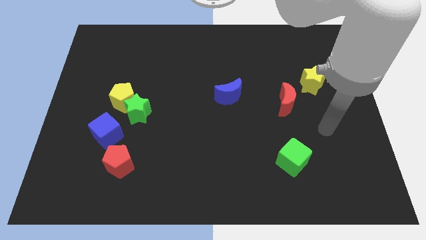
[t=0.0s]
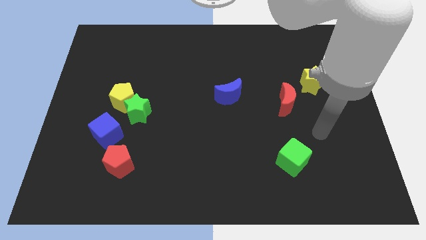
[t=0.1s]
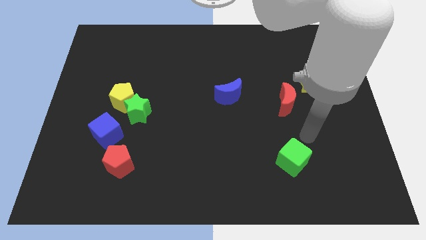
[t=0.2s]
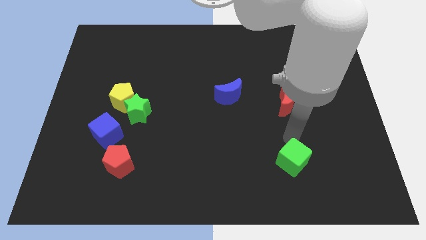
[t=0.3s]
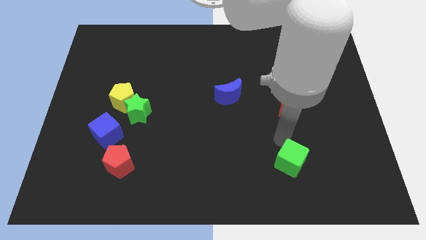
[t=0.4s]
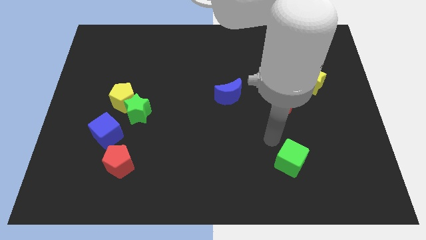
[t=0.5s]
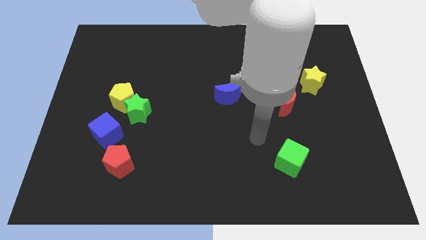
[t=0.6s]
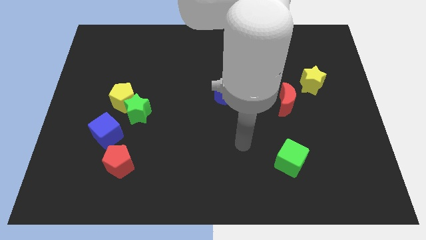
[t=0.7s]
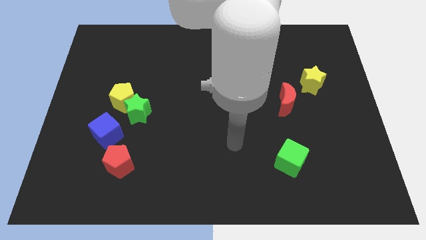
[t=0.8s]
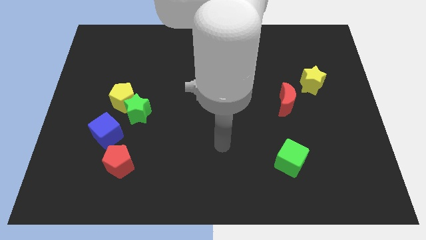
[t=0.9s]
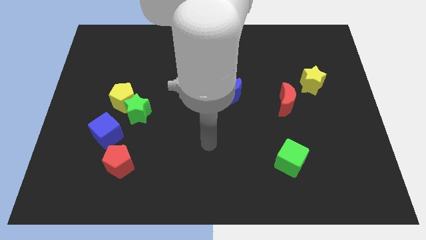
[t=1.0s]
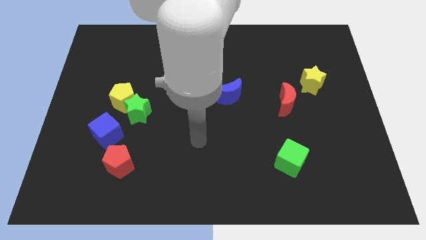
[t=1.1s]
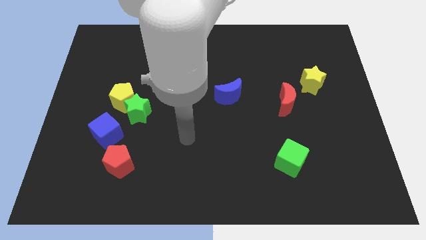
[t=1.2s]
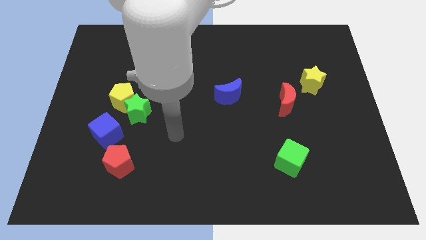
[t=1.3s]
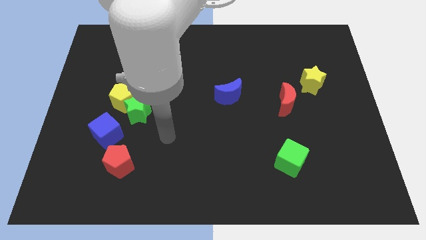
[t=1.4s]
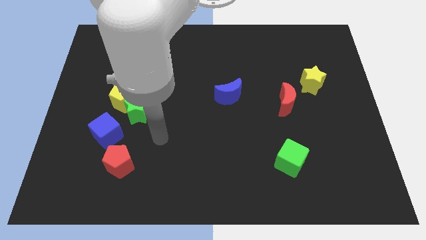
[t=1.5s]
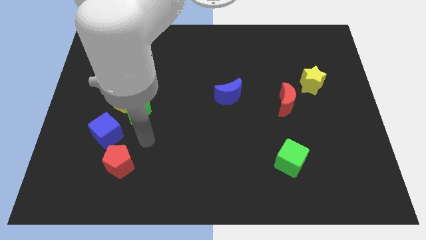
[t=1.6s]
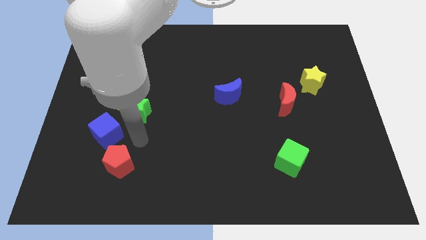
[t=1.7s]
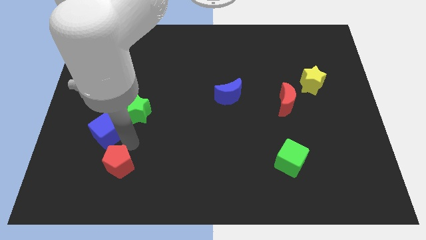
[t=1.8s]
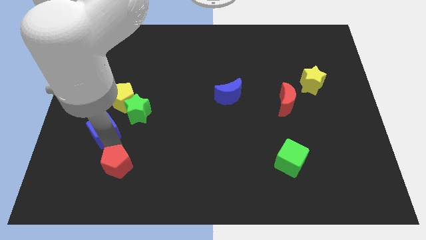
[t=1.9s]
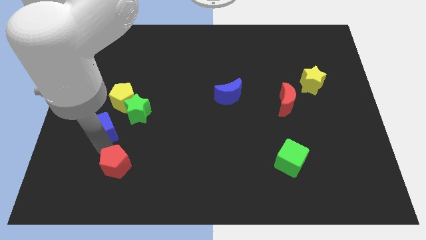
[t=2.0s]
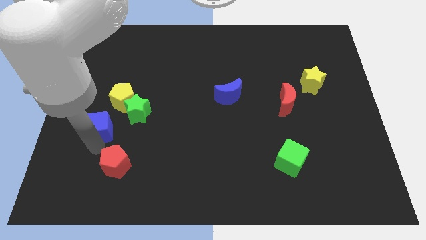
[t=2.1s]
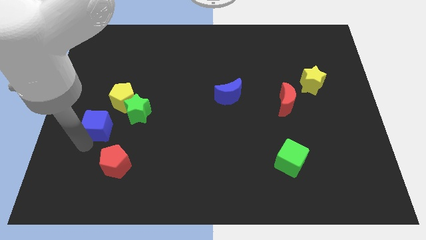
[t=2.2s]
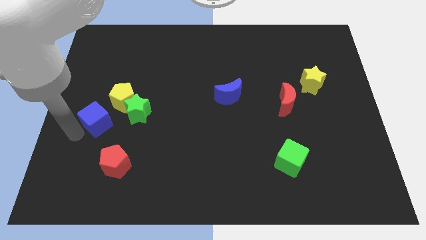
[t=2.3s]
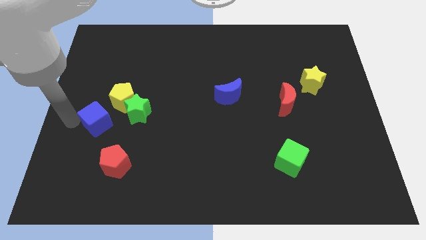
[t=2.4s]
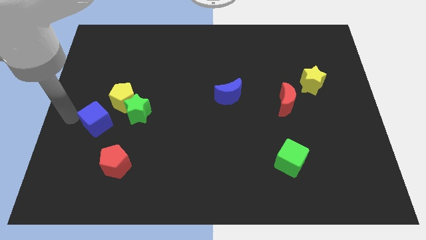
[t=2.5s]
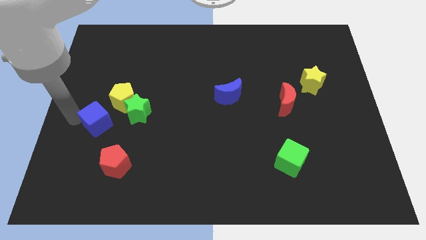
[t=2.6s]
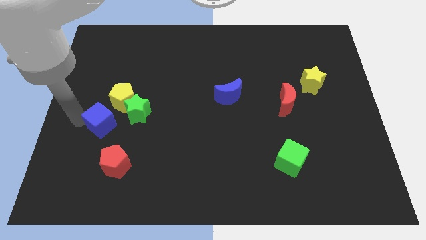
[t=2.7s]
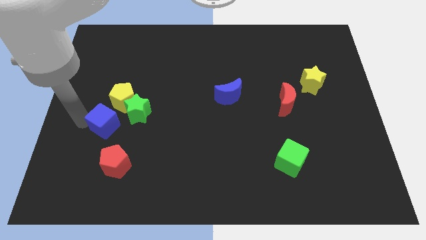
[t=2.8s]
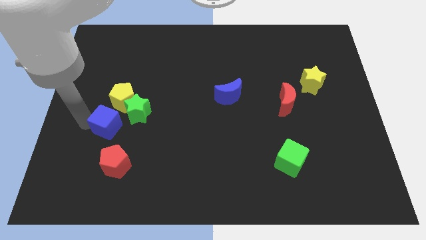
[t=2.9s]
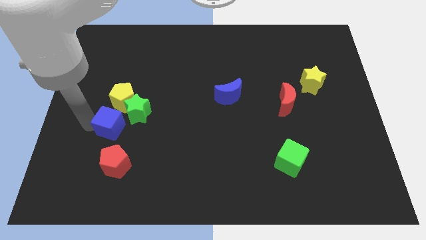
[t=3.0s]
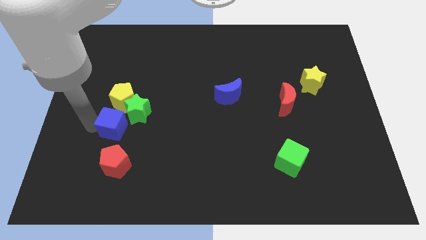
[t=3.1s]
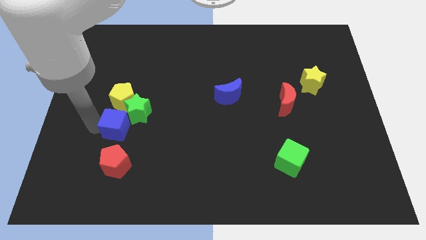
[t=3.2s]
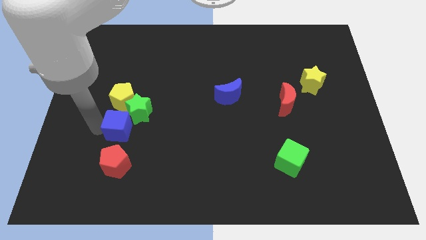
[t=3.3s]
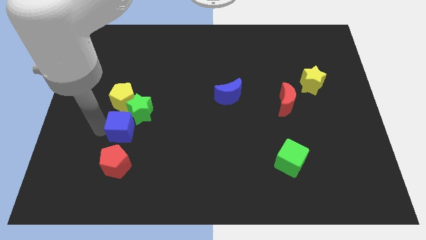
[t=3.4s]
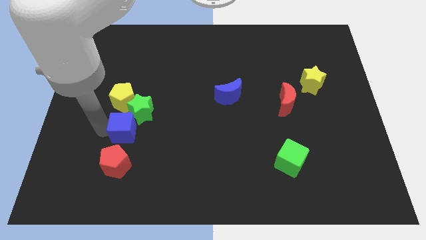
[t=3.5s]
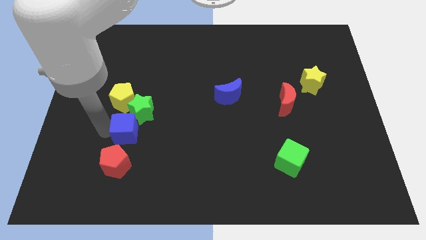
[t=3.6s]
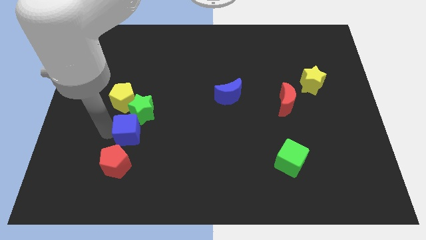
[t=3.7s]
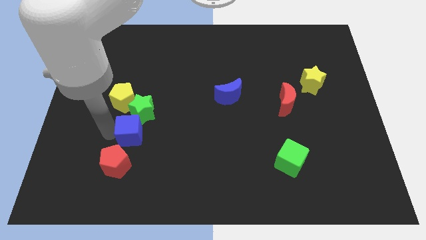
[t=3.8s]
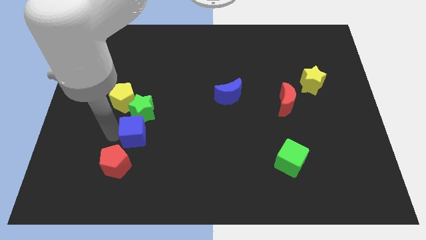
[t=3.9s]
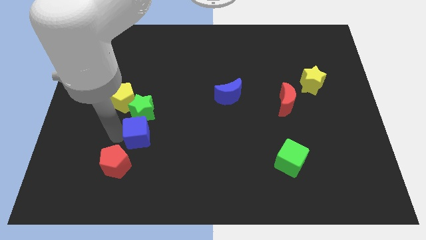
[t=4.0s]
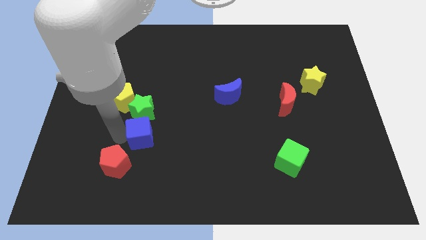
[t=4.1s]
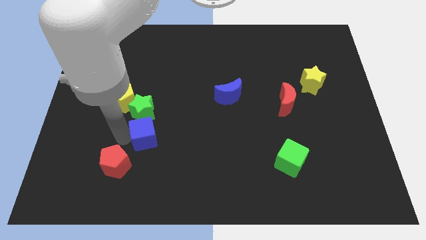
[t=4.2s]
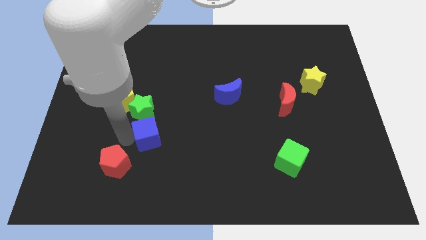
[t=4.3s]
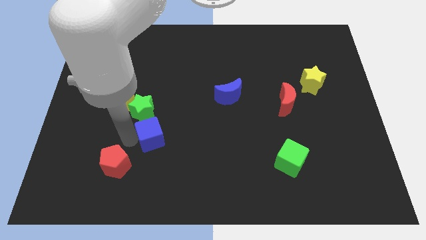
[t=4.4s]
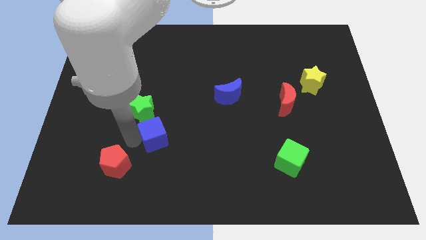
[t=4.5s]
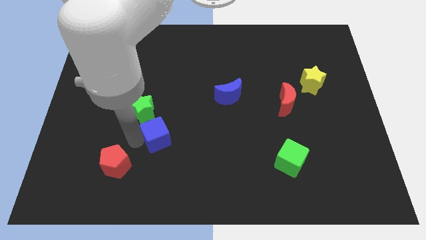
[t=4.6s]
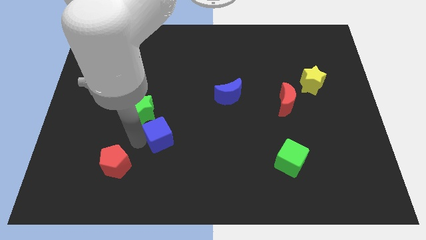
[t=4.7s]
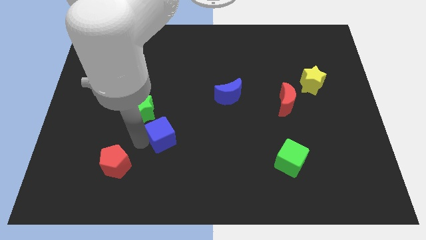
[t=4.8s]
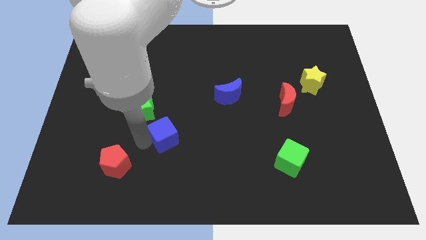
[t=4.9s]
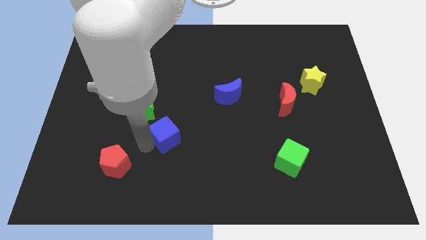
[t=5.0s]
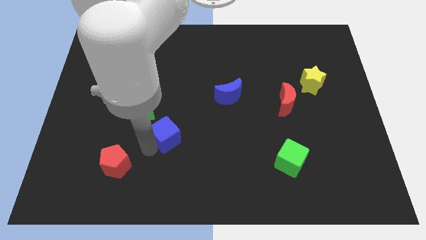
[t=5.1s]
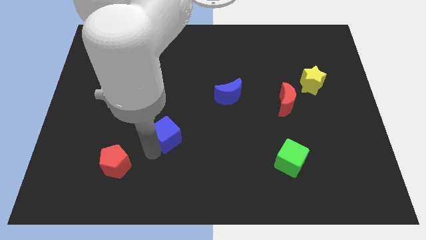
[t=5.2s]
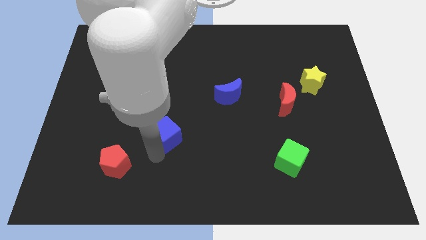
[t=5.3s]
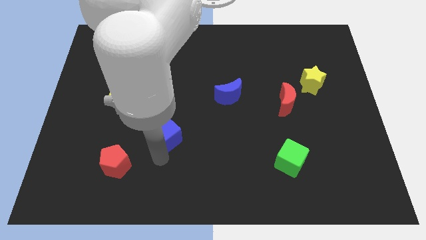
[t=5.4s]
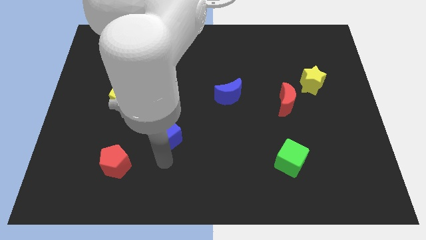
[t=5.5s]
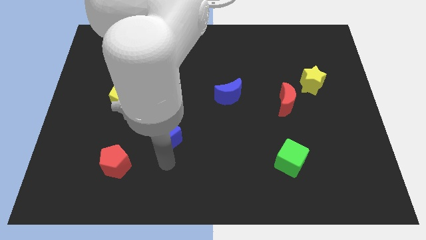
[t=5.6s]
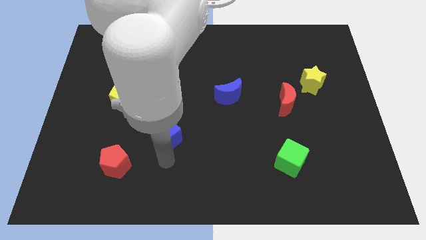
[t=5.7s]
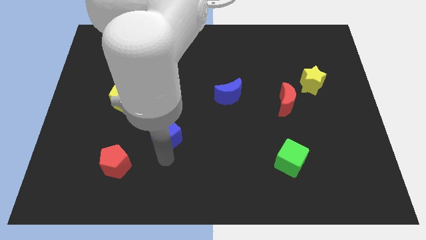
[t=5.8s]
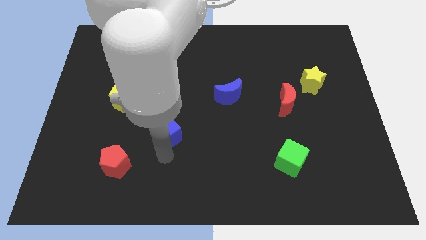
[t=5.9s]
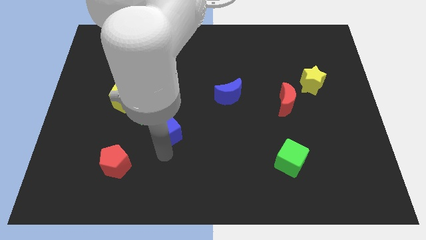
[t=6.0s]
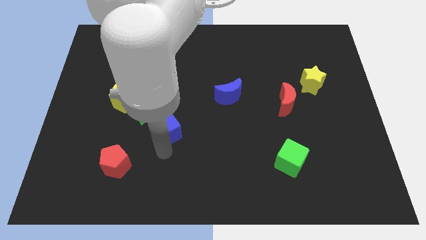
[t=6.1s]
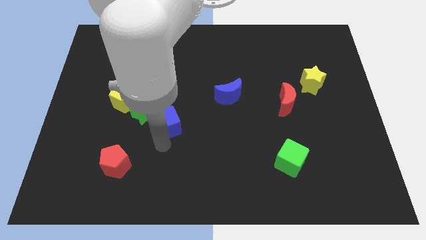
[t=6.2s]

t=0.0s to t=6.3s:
slightly move the blue cube diagonally up and to the right

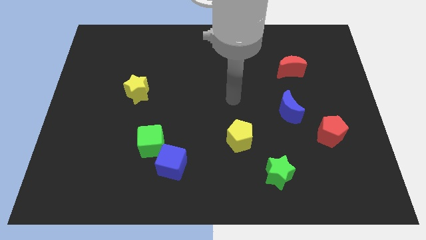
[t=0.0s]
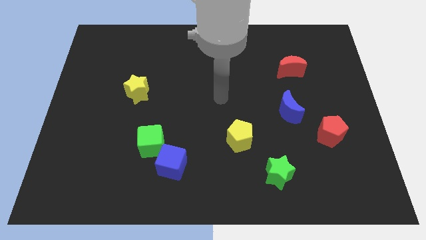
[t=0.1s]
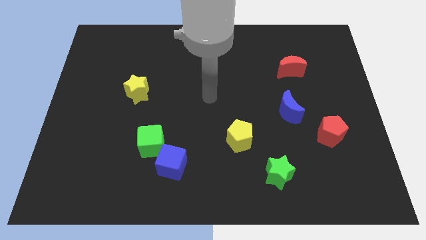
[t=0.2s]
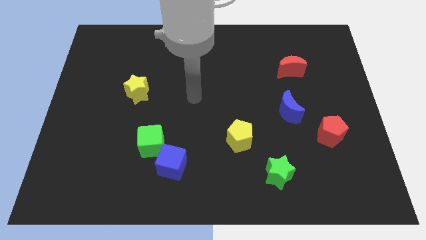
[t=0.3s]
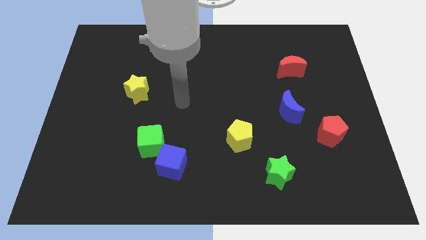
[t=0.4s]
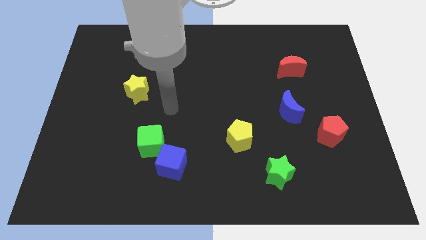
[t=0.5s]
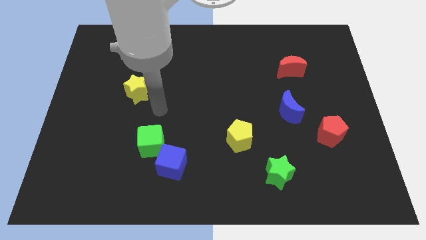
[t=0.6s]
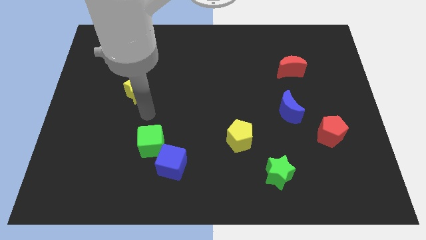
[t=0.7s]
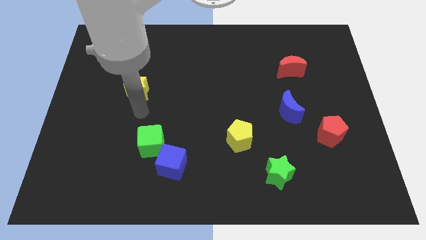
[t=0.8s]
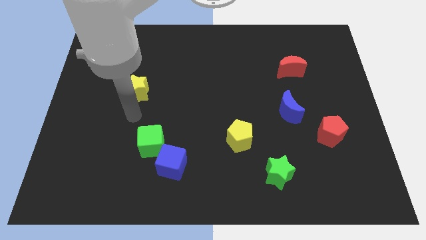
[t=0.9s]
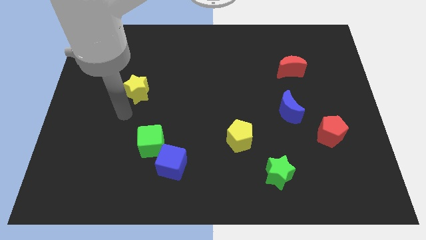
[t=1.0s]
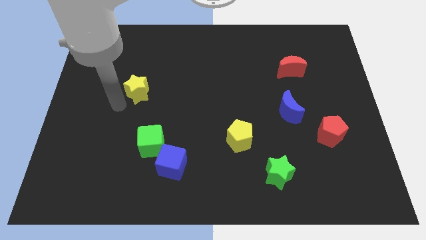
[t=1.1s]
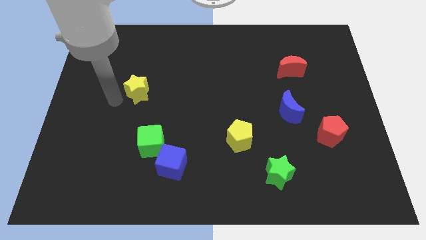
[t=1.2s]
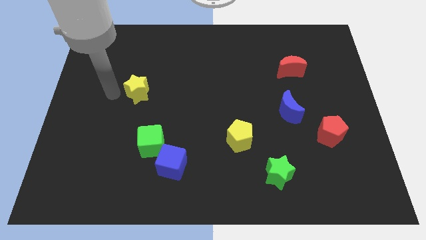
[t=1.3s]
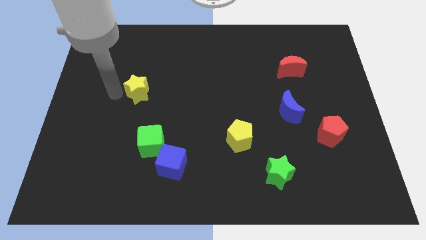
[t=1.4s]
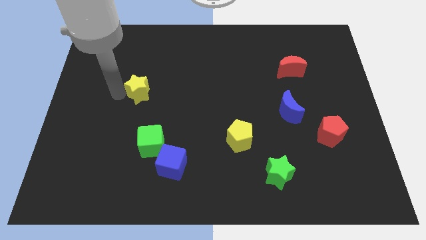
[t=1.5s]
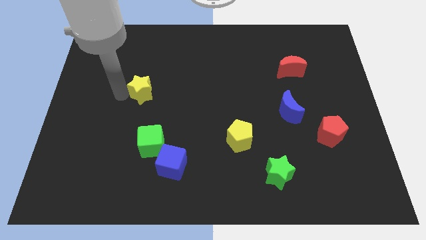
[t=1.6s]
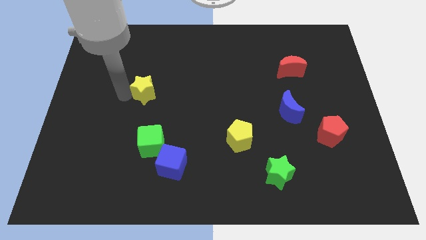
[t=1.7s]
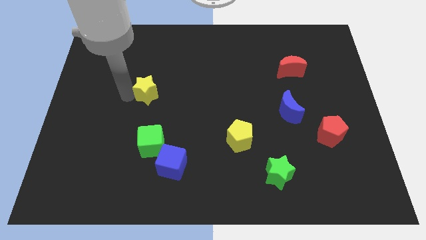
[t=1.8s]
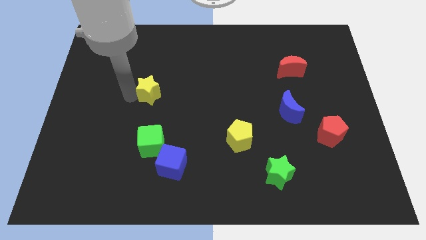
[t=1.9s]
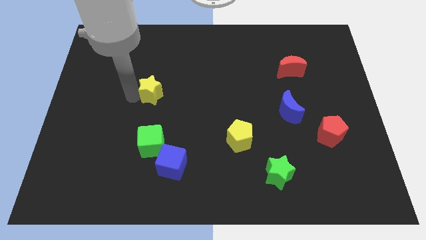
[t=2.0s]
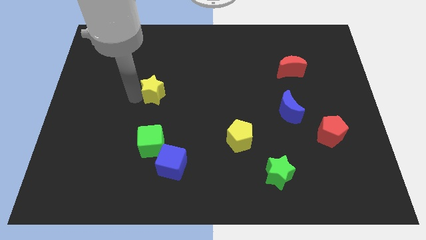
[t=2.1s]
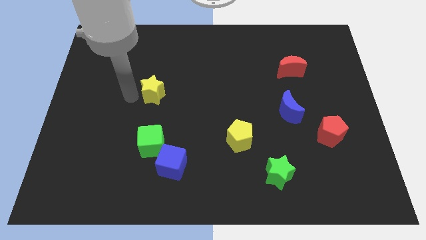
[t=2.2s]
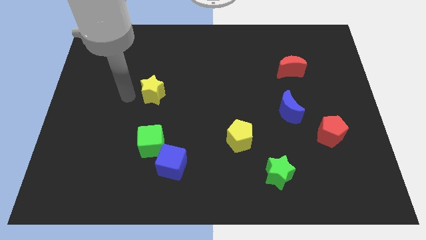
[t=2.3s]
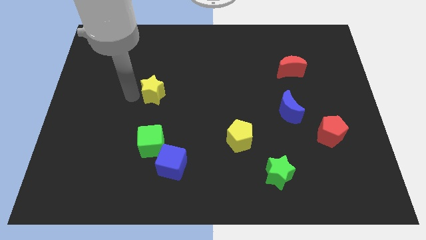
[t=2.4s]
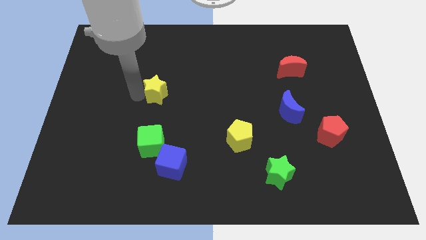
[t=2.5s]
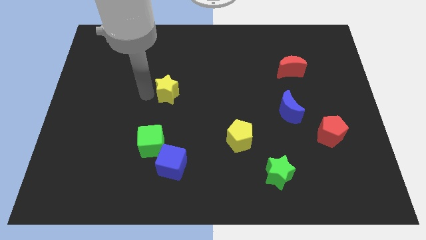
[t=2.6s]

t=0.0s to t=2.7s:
push the yellow star to the right somewhat
